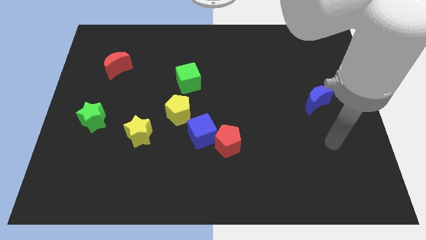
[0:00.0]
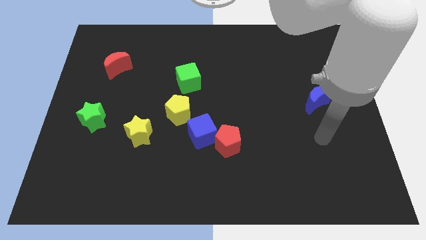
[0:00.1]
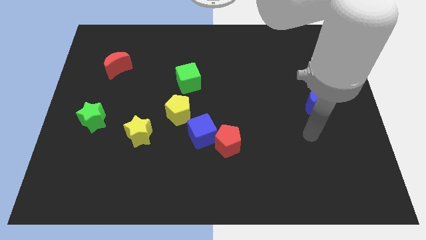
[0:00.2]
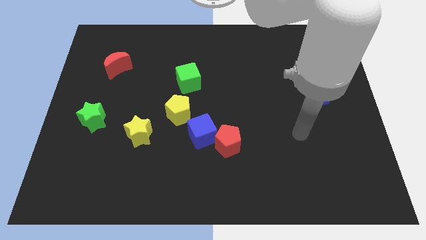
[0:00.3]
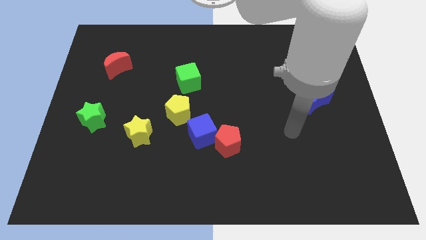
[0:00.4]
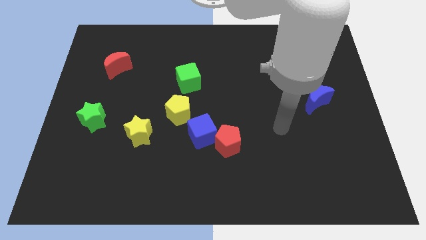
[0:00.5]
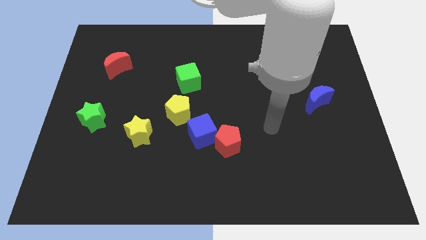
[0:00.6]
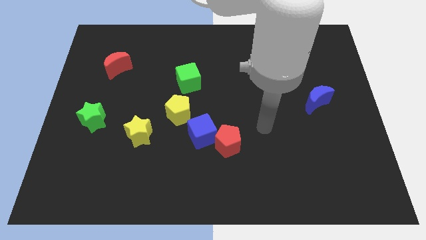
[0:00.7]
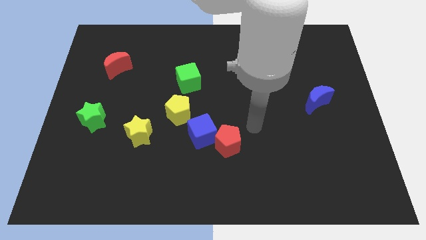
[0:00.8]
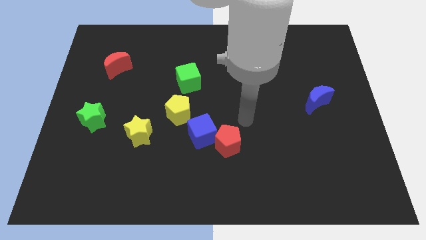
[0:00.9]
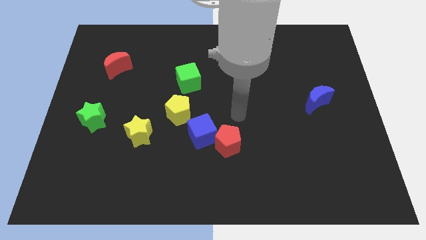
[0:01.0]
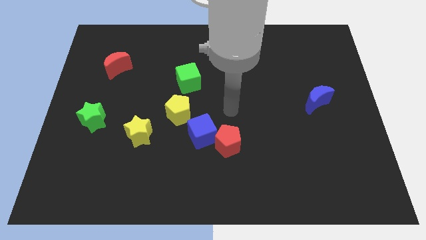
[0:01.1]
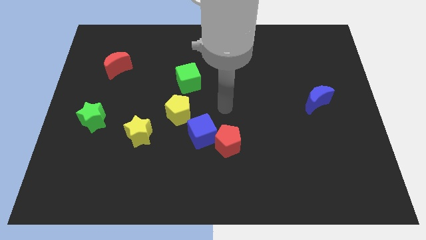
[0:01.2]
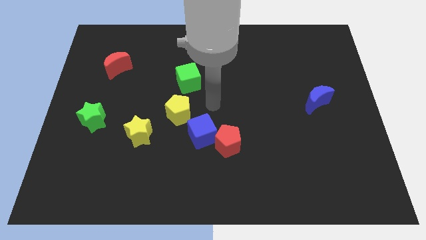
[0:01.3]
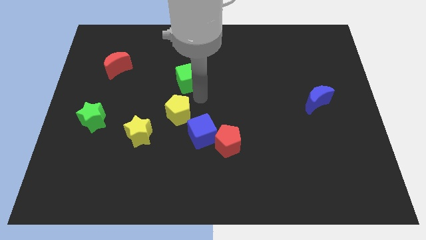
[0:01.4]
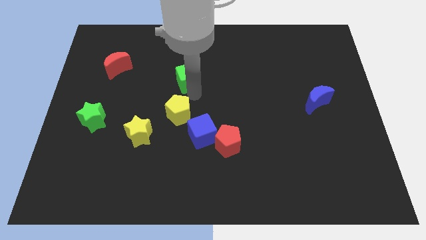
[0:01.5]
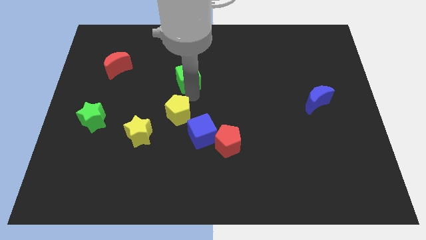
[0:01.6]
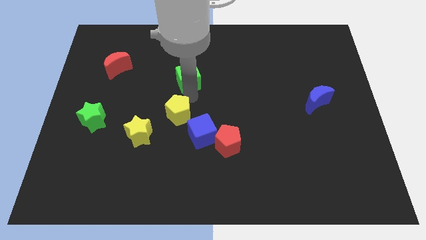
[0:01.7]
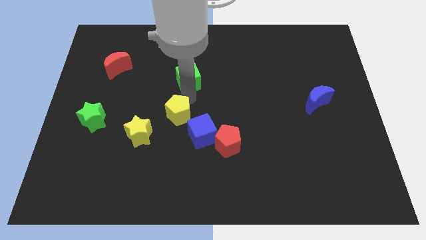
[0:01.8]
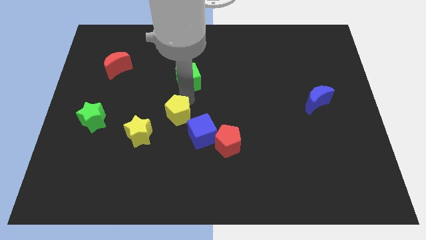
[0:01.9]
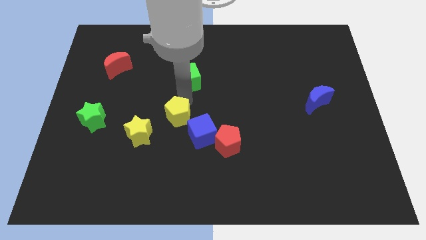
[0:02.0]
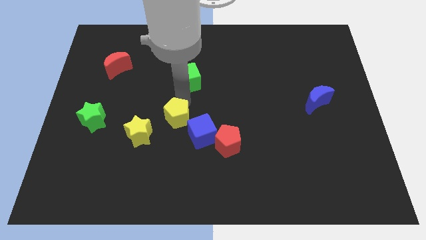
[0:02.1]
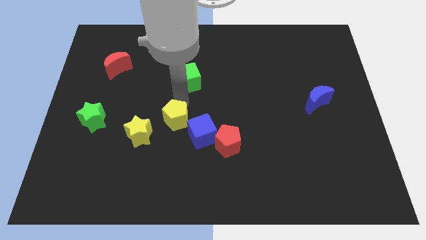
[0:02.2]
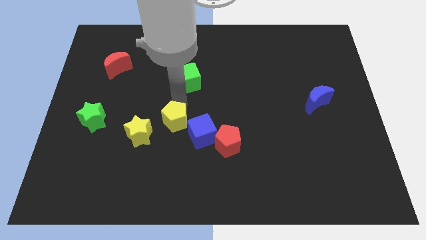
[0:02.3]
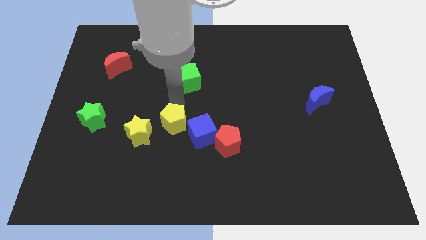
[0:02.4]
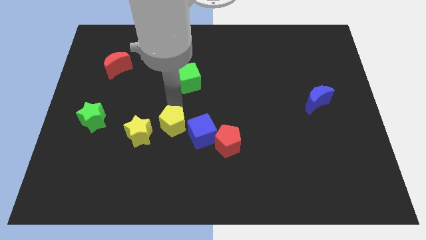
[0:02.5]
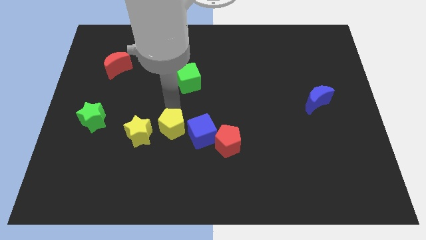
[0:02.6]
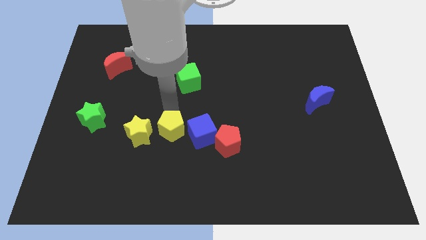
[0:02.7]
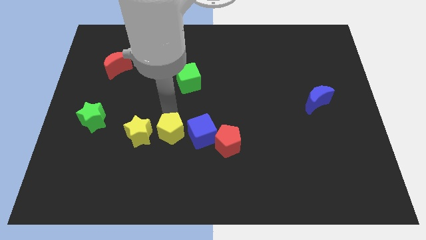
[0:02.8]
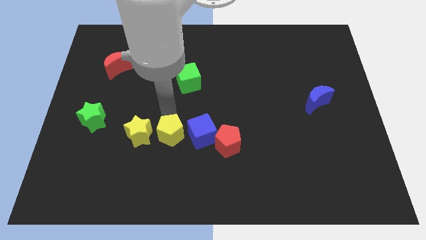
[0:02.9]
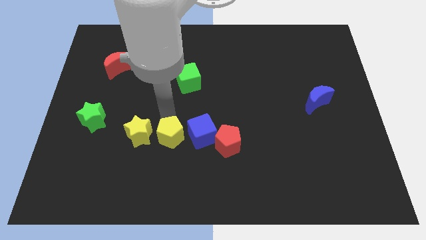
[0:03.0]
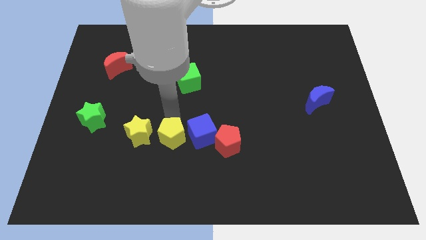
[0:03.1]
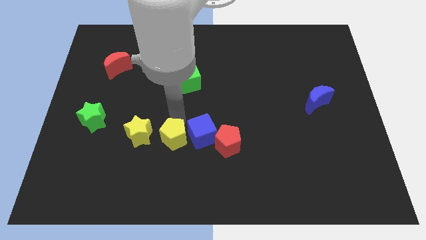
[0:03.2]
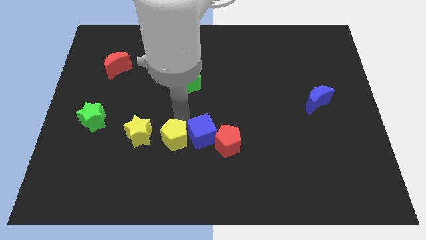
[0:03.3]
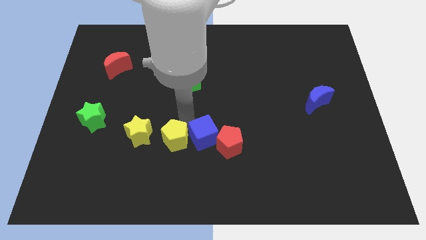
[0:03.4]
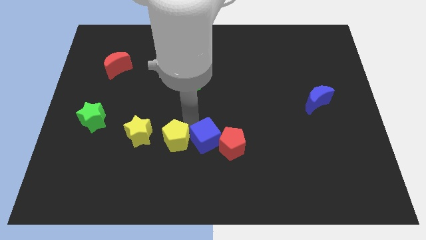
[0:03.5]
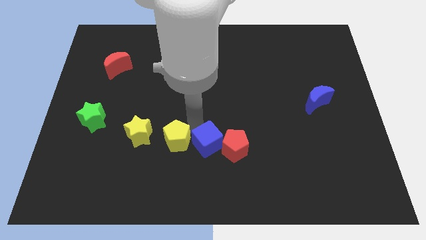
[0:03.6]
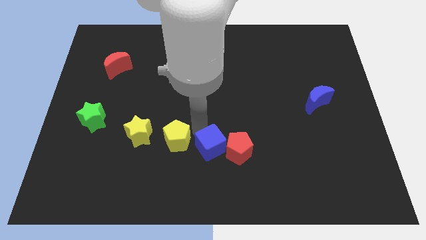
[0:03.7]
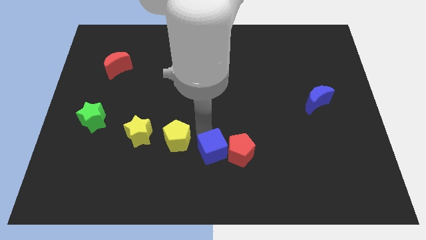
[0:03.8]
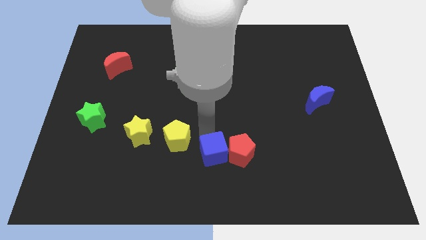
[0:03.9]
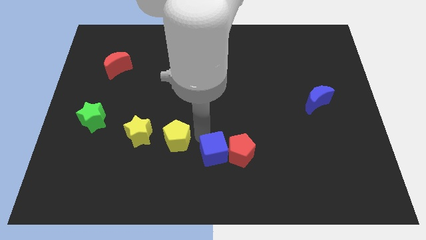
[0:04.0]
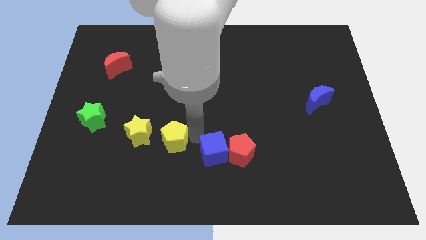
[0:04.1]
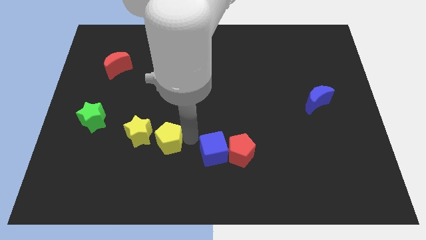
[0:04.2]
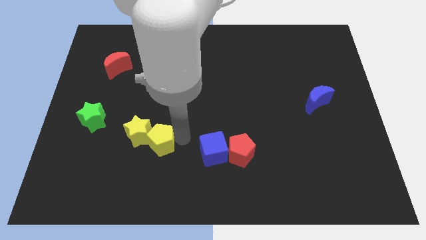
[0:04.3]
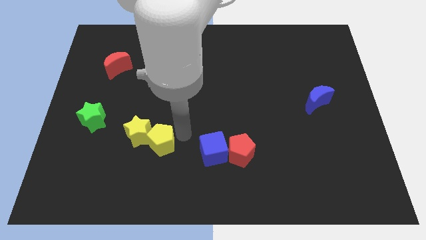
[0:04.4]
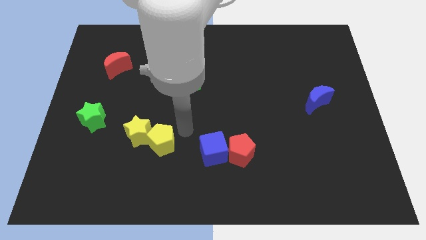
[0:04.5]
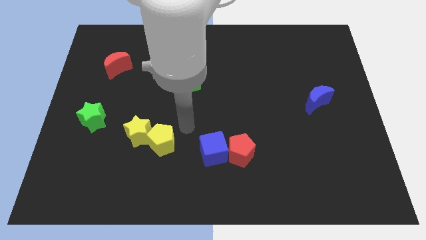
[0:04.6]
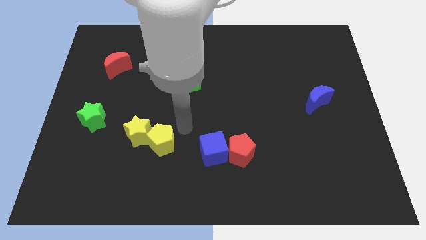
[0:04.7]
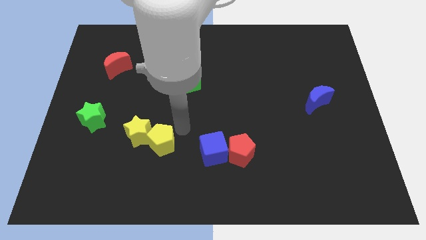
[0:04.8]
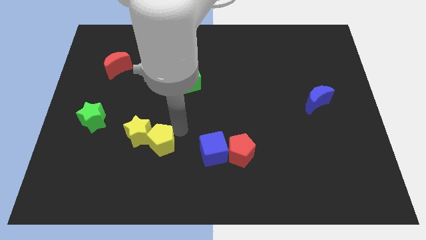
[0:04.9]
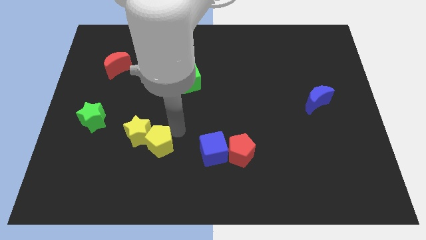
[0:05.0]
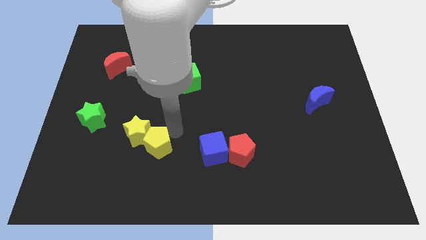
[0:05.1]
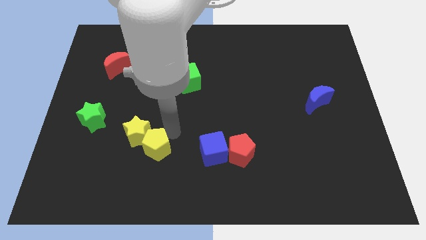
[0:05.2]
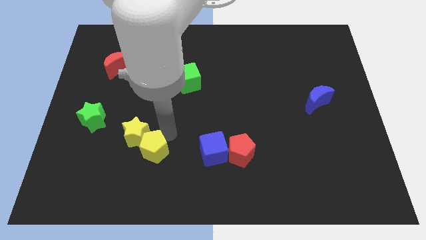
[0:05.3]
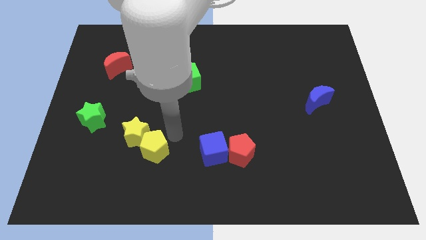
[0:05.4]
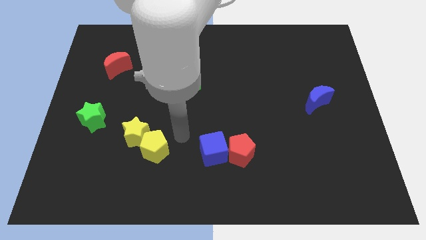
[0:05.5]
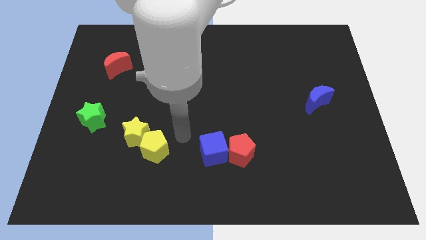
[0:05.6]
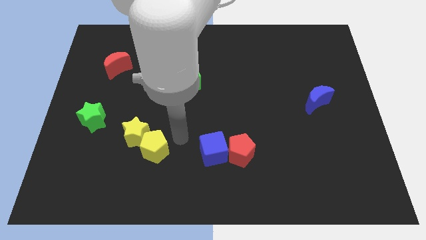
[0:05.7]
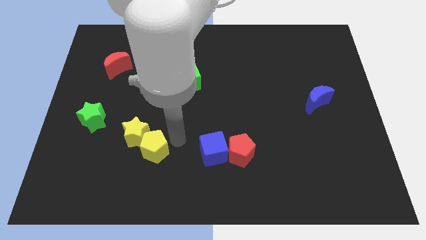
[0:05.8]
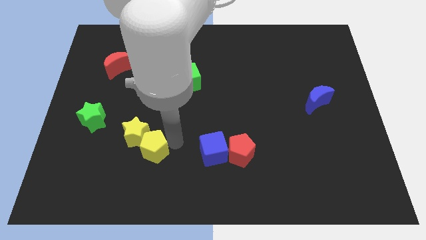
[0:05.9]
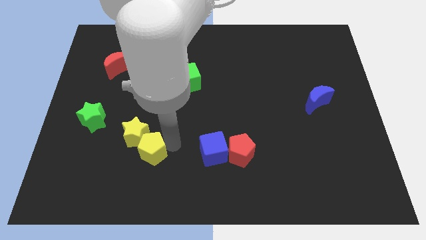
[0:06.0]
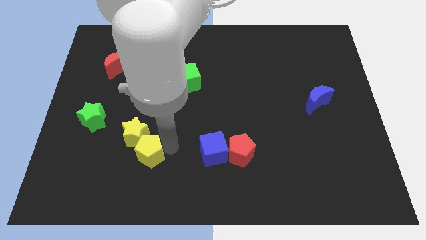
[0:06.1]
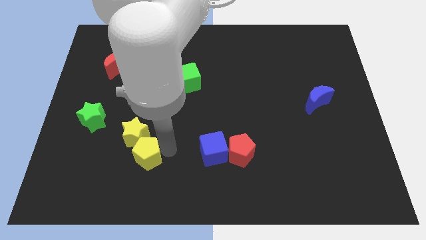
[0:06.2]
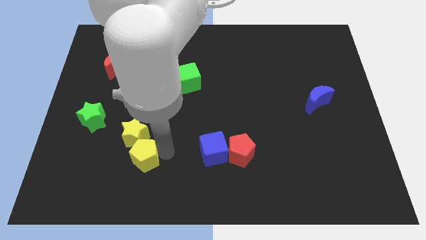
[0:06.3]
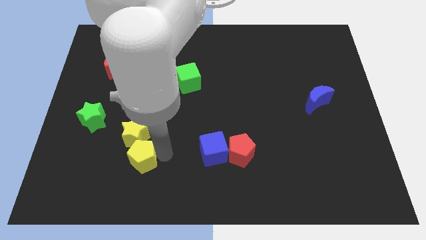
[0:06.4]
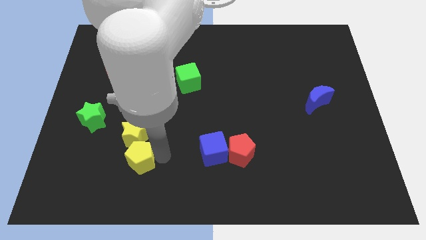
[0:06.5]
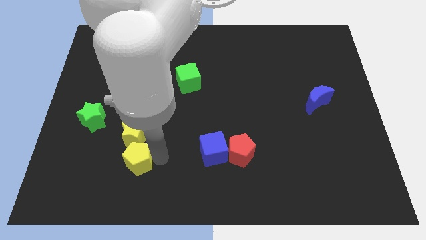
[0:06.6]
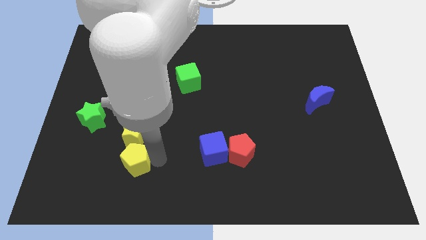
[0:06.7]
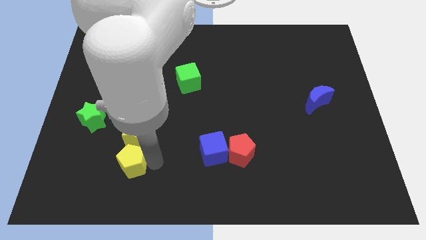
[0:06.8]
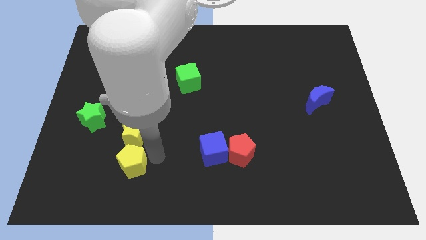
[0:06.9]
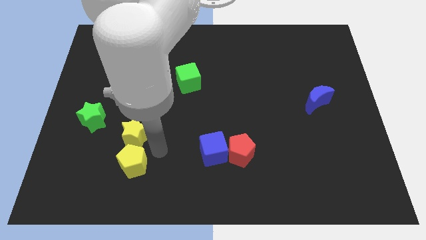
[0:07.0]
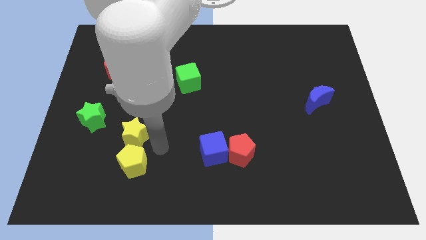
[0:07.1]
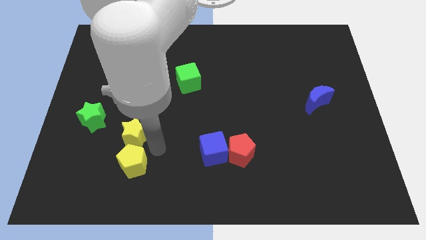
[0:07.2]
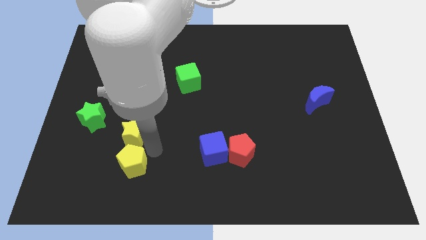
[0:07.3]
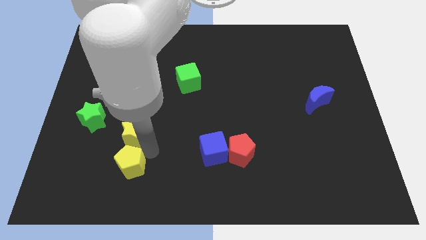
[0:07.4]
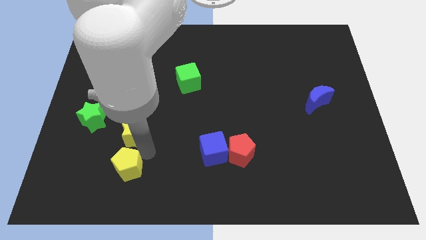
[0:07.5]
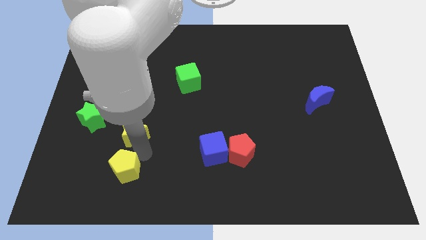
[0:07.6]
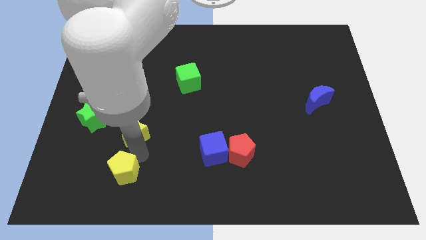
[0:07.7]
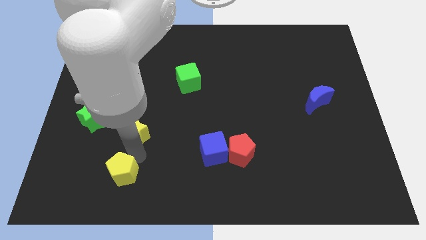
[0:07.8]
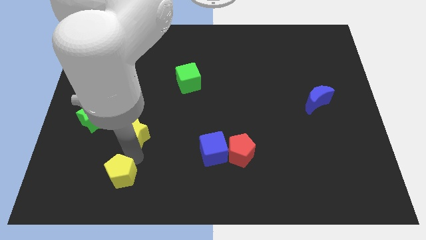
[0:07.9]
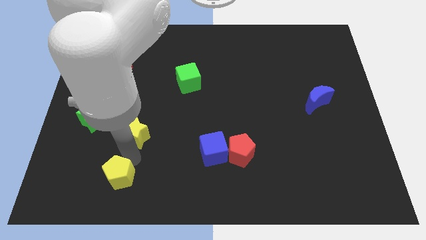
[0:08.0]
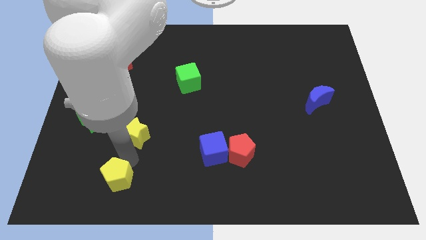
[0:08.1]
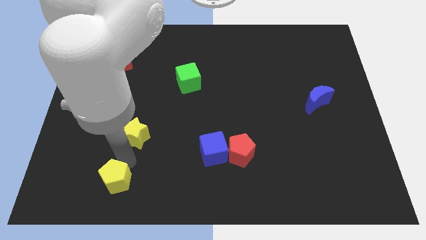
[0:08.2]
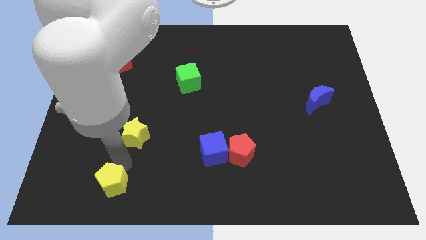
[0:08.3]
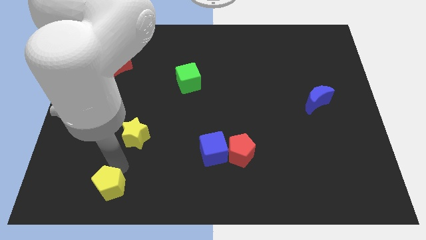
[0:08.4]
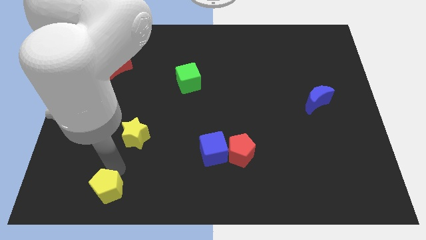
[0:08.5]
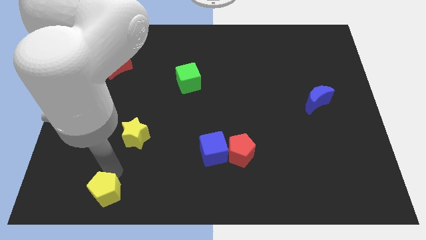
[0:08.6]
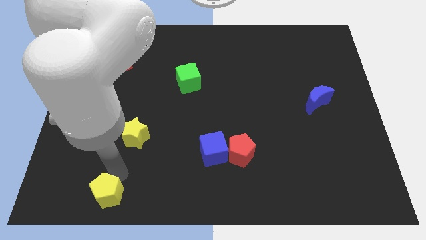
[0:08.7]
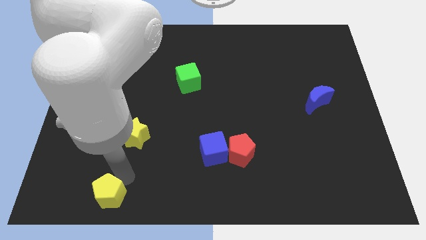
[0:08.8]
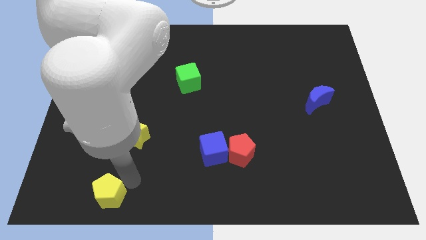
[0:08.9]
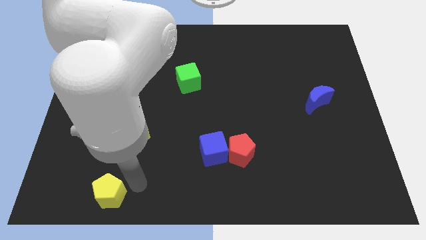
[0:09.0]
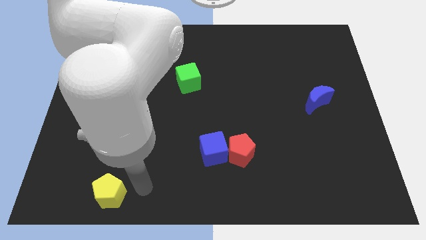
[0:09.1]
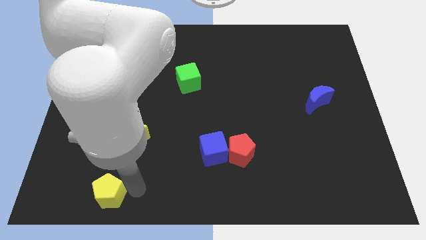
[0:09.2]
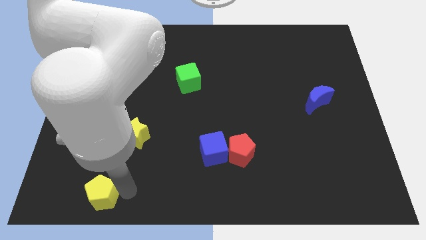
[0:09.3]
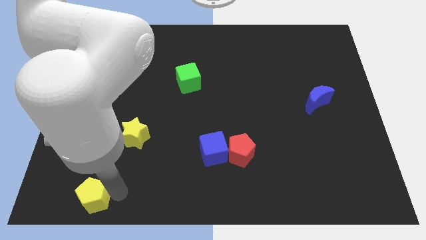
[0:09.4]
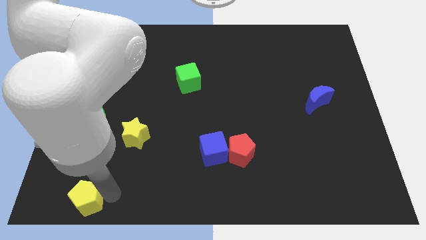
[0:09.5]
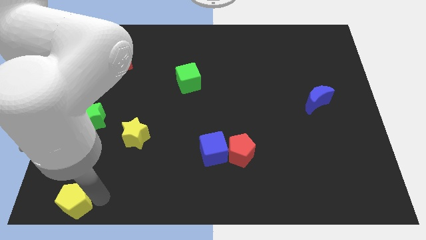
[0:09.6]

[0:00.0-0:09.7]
slide the yellow pentagon to the lower left corner
